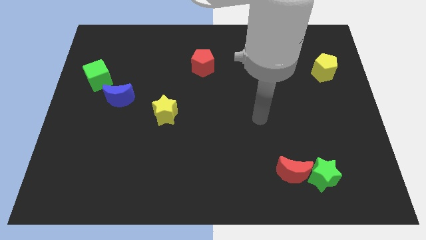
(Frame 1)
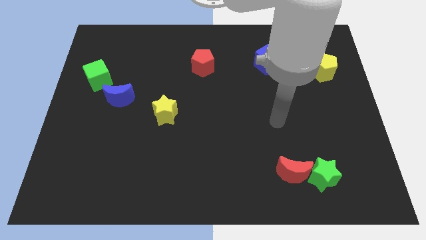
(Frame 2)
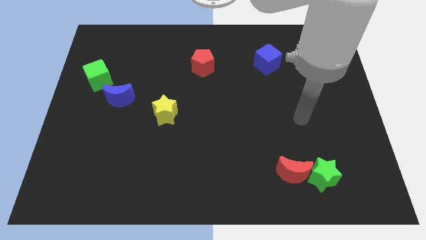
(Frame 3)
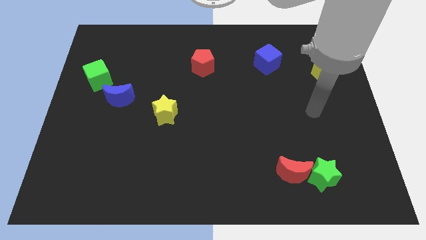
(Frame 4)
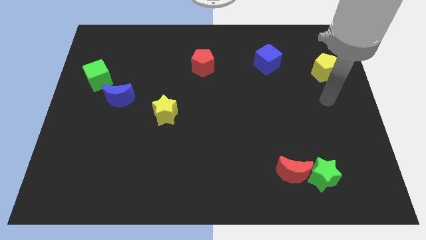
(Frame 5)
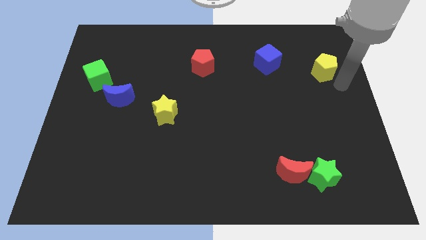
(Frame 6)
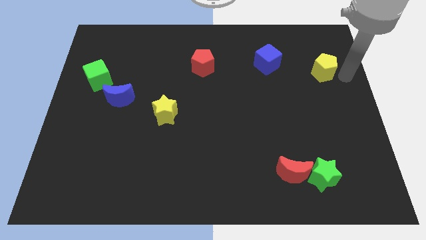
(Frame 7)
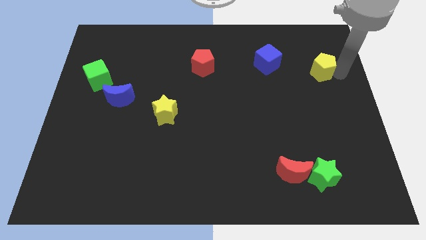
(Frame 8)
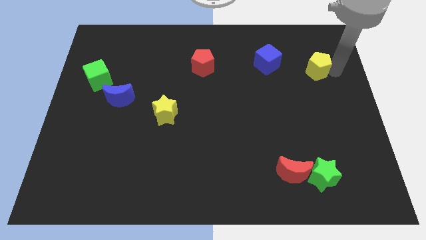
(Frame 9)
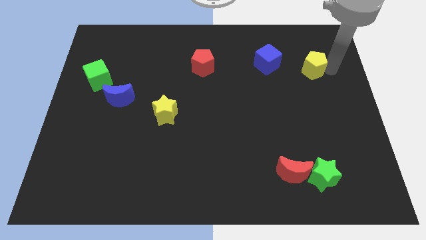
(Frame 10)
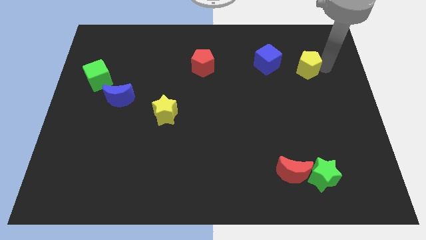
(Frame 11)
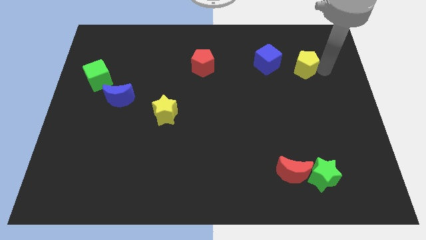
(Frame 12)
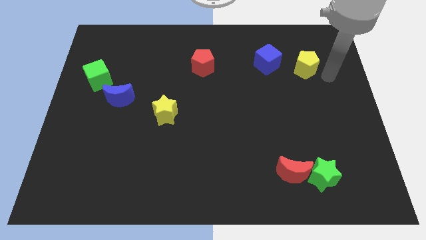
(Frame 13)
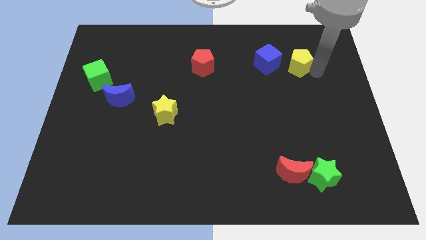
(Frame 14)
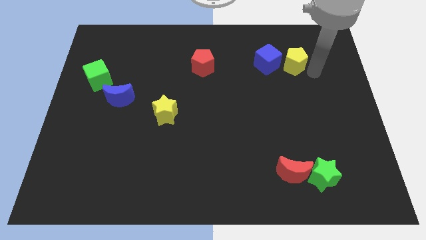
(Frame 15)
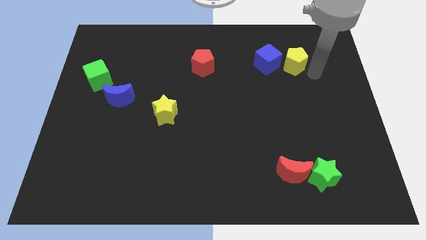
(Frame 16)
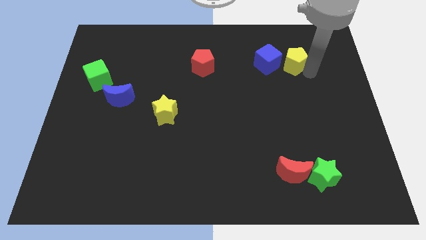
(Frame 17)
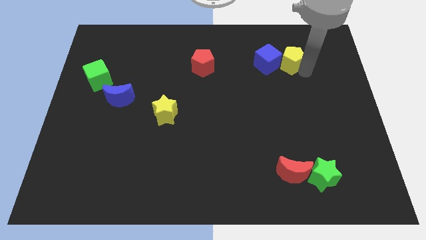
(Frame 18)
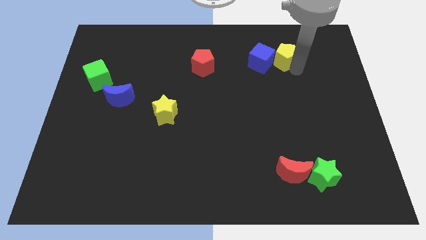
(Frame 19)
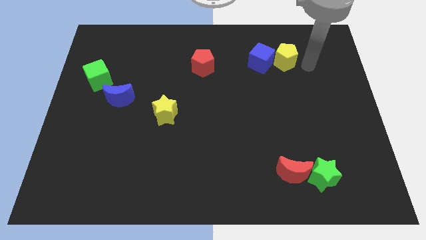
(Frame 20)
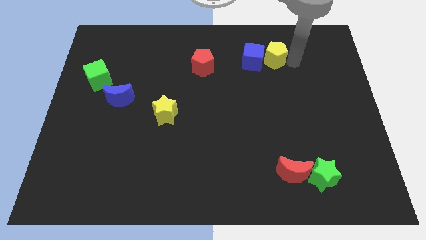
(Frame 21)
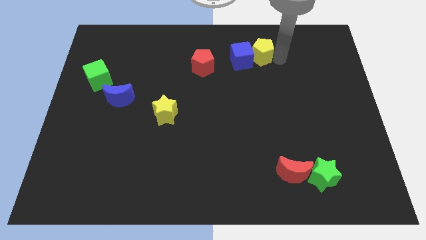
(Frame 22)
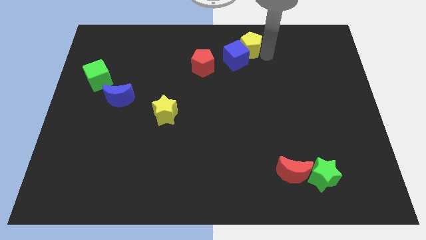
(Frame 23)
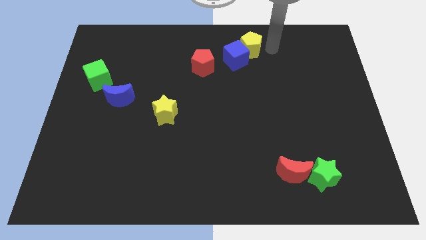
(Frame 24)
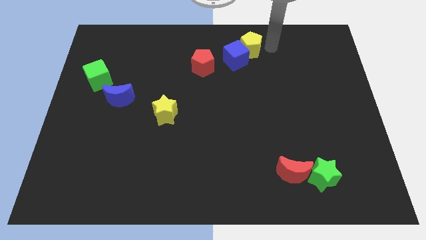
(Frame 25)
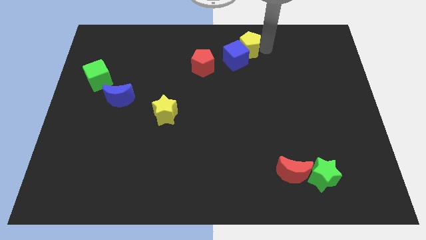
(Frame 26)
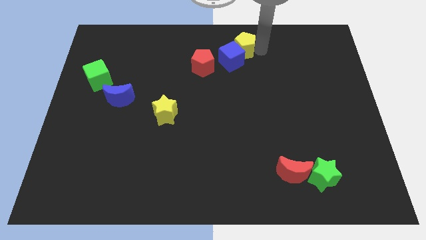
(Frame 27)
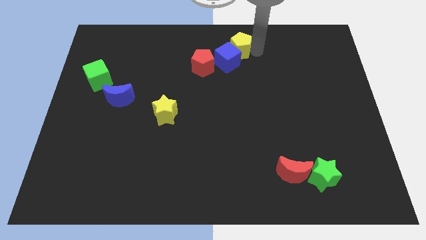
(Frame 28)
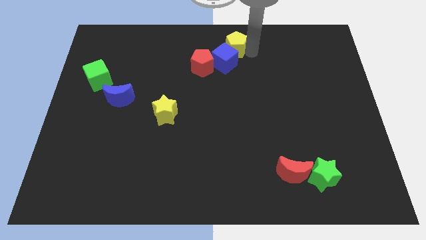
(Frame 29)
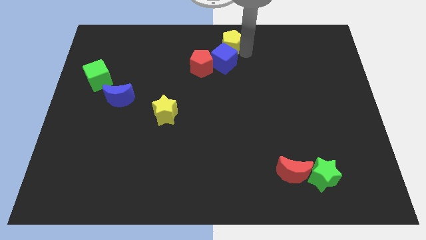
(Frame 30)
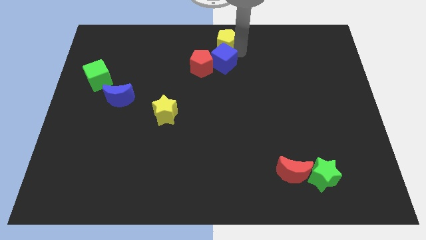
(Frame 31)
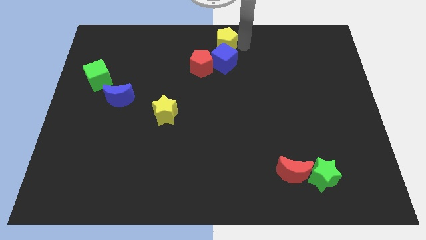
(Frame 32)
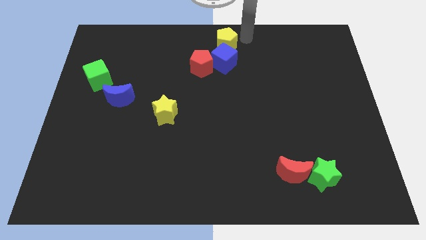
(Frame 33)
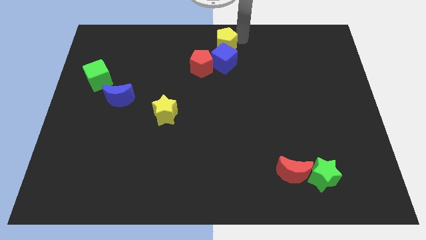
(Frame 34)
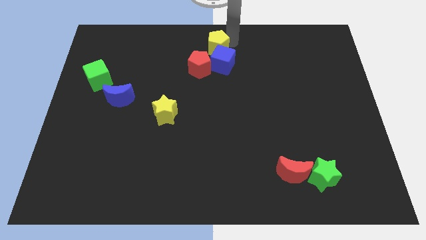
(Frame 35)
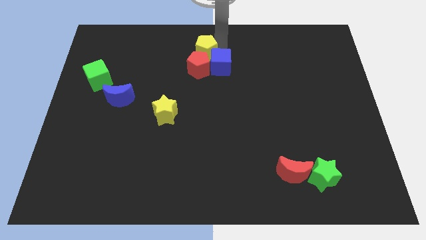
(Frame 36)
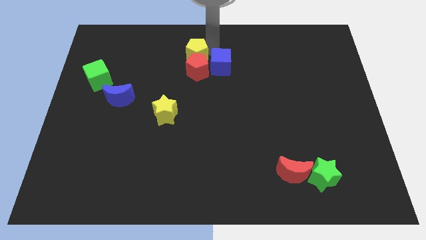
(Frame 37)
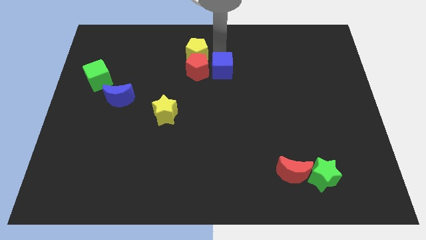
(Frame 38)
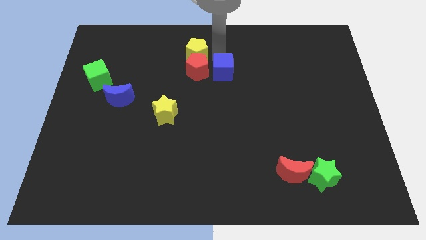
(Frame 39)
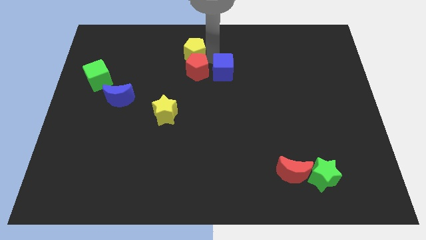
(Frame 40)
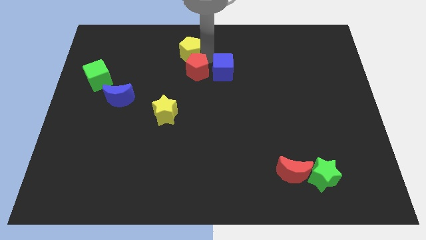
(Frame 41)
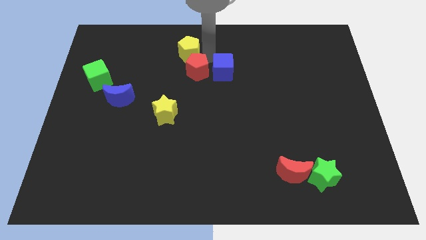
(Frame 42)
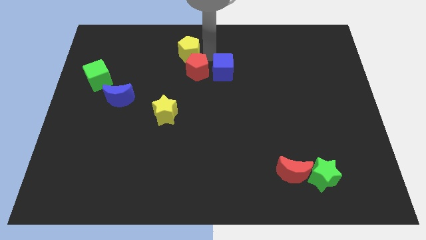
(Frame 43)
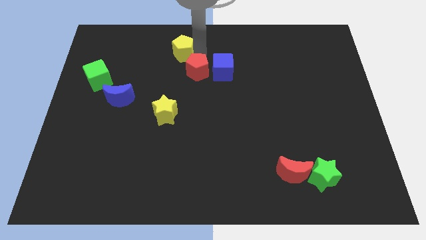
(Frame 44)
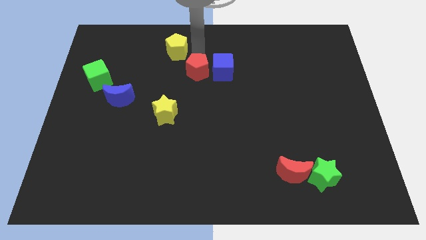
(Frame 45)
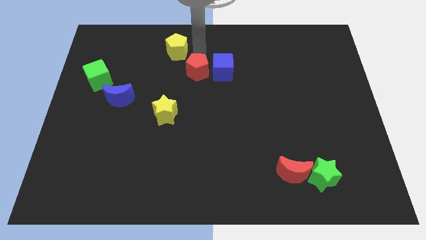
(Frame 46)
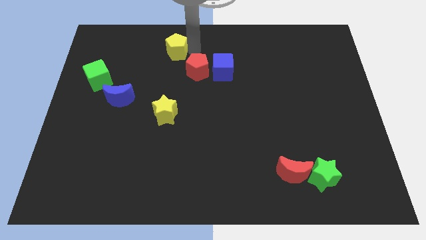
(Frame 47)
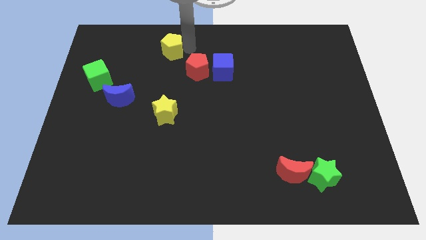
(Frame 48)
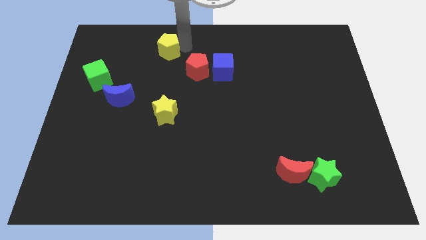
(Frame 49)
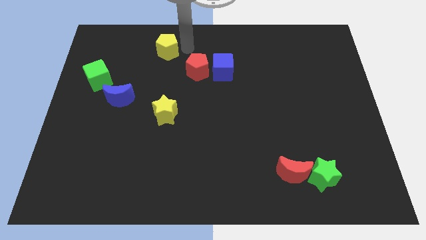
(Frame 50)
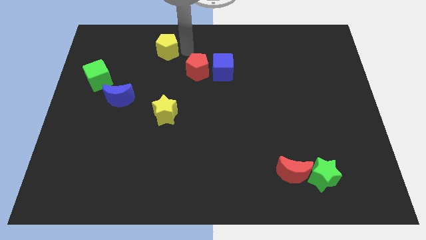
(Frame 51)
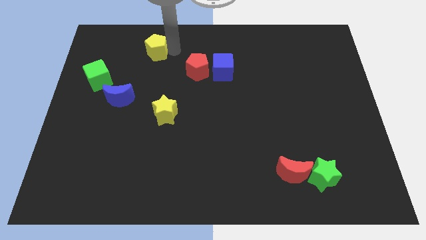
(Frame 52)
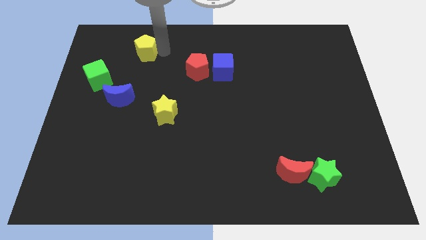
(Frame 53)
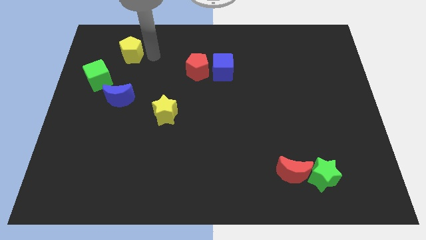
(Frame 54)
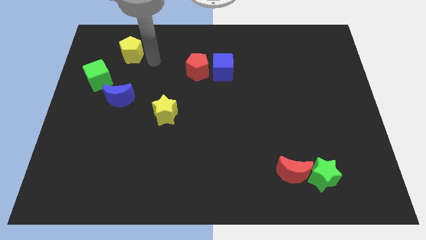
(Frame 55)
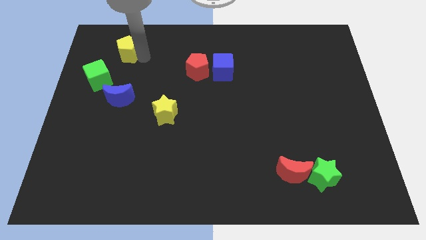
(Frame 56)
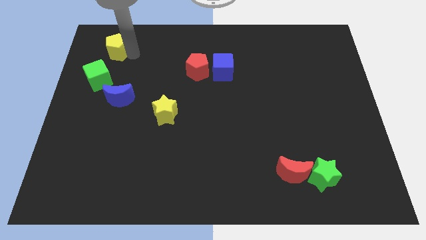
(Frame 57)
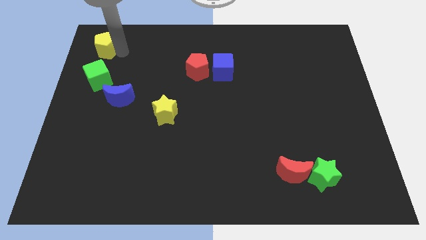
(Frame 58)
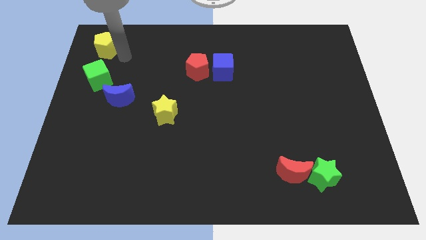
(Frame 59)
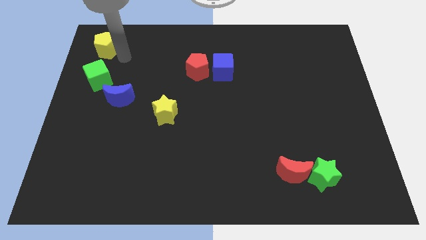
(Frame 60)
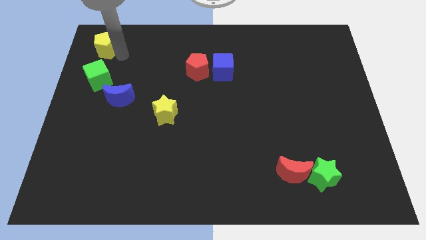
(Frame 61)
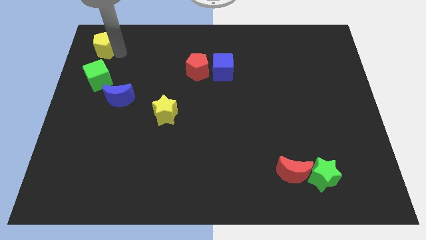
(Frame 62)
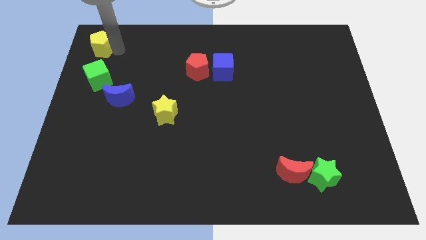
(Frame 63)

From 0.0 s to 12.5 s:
slide the yellow pentagon to the top left of the board

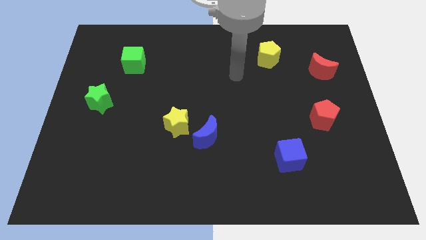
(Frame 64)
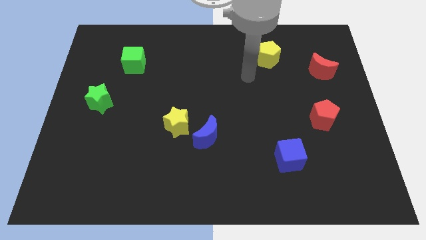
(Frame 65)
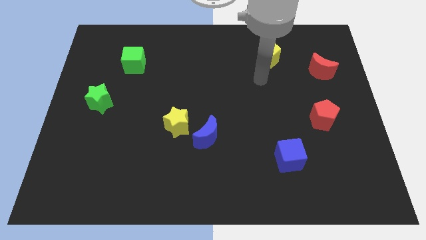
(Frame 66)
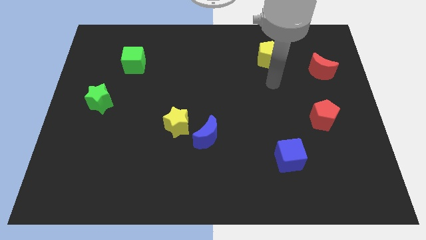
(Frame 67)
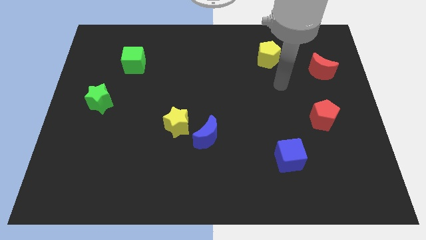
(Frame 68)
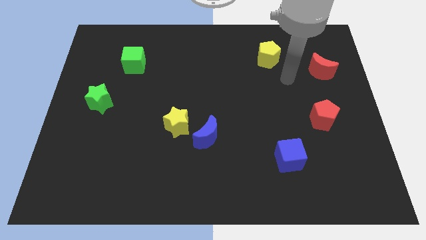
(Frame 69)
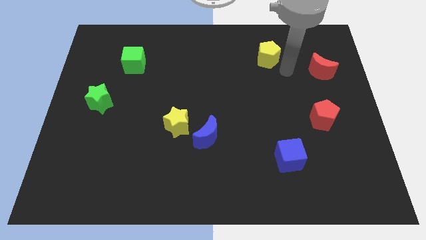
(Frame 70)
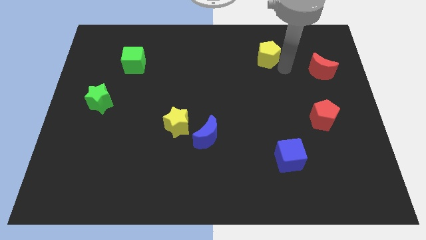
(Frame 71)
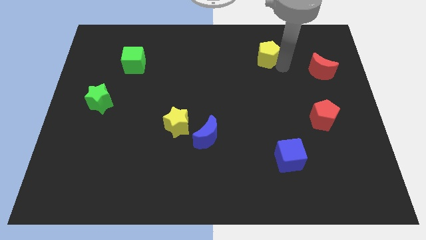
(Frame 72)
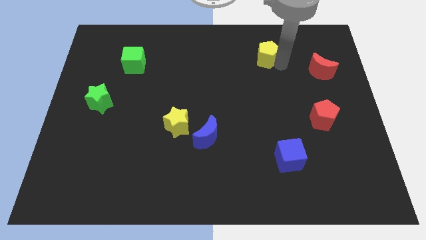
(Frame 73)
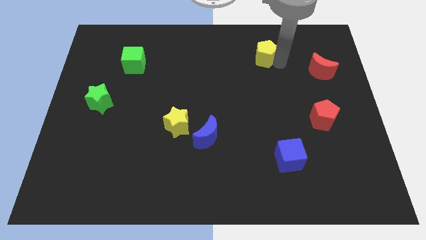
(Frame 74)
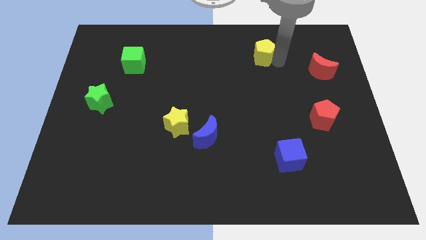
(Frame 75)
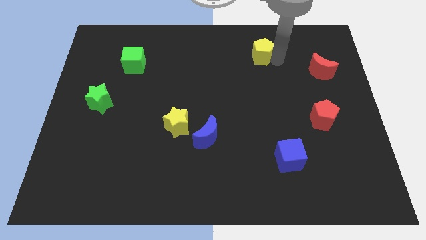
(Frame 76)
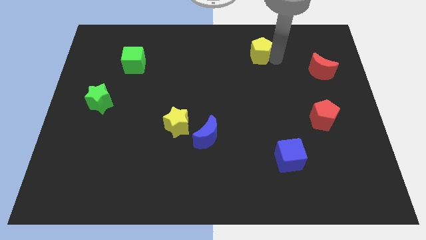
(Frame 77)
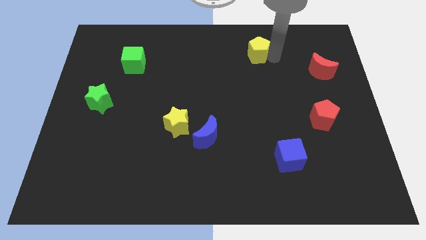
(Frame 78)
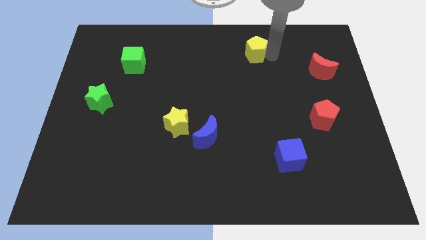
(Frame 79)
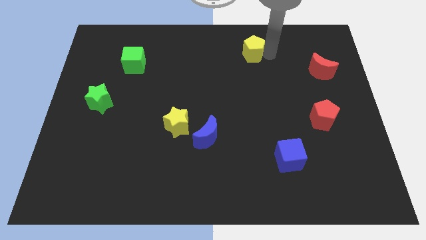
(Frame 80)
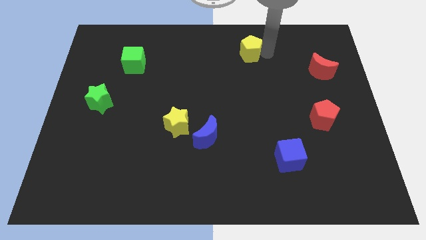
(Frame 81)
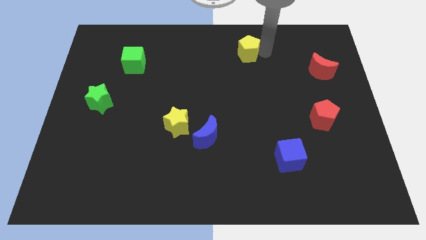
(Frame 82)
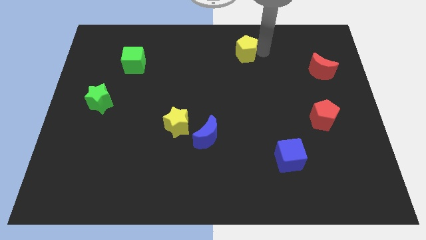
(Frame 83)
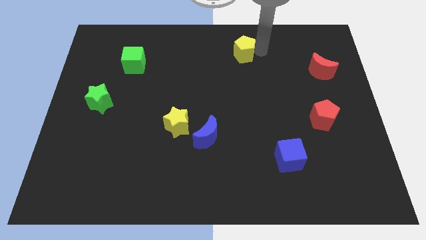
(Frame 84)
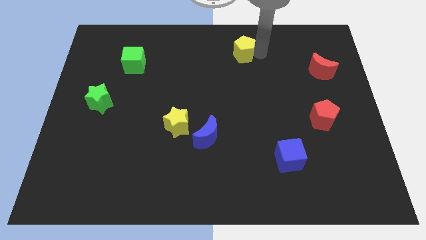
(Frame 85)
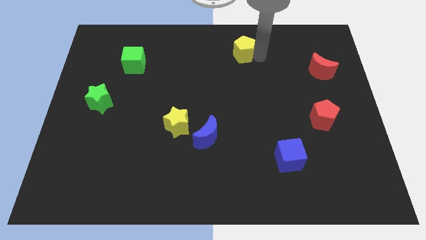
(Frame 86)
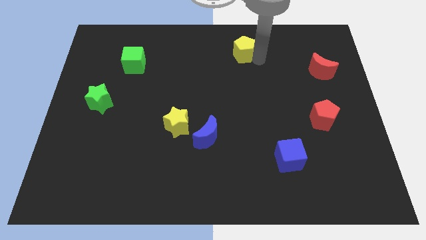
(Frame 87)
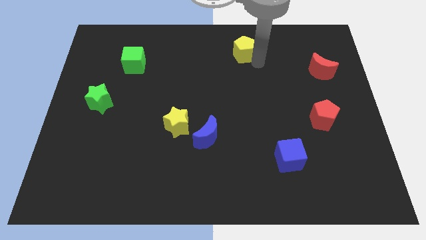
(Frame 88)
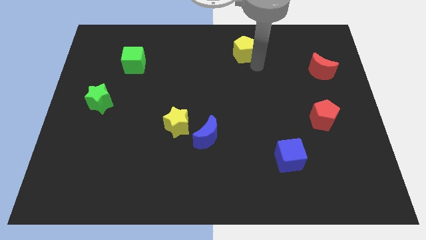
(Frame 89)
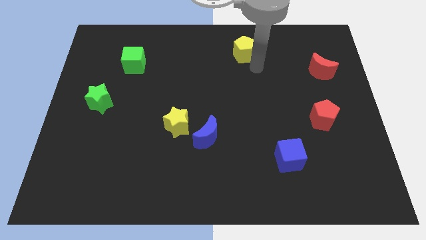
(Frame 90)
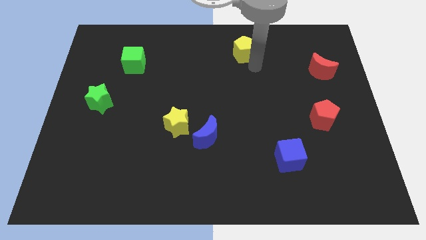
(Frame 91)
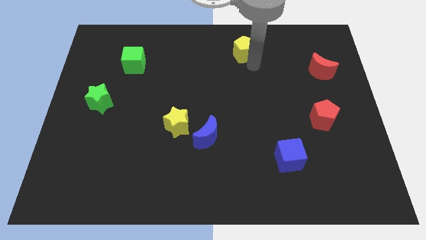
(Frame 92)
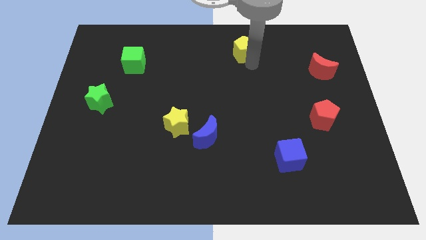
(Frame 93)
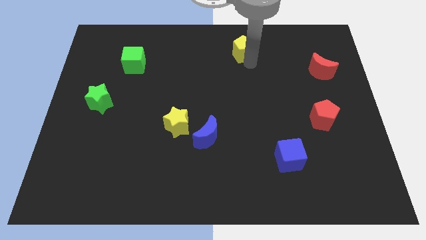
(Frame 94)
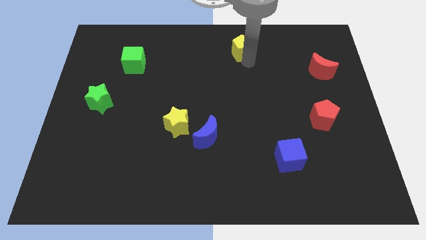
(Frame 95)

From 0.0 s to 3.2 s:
move the yellow pentagon to the towards your base
